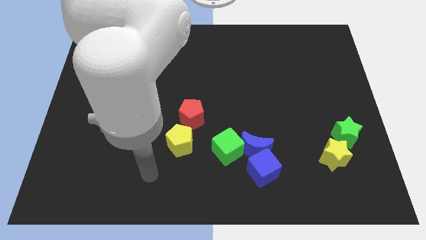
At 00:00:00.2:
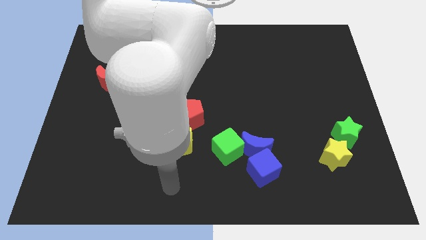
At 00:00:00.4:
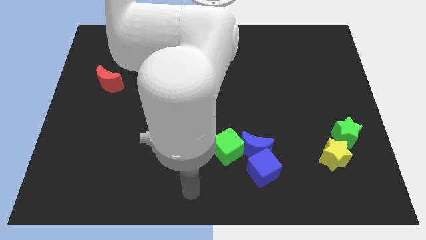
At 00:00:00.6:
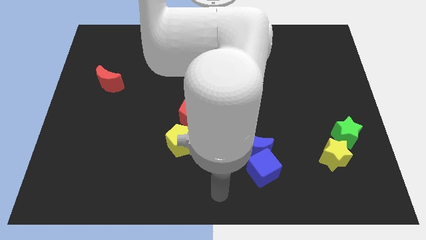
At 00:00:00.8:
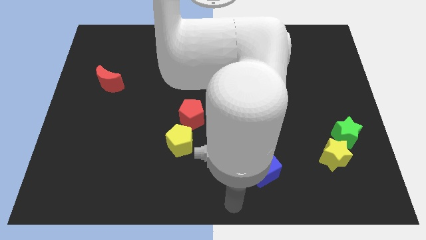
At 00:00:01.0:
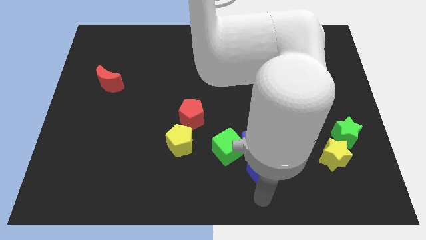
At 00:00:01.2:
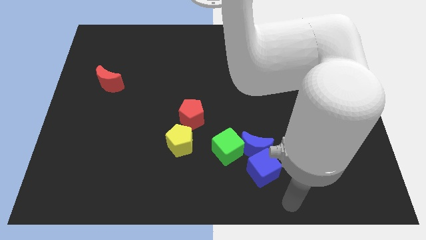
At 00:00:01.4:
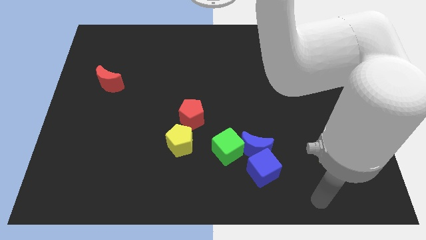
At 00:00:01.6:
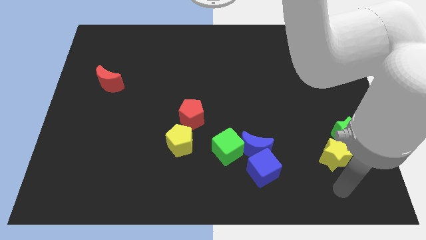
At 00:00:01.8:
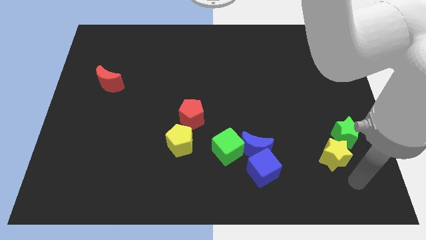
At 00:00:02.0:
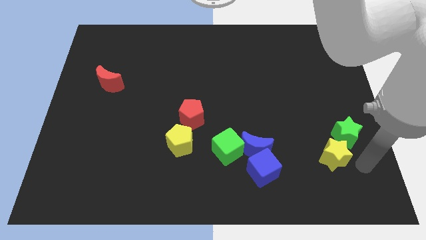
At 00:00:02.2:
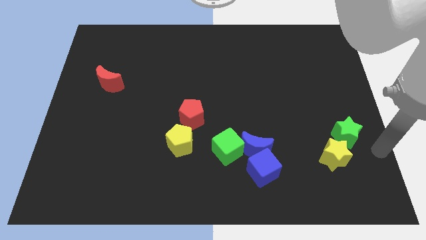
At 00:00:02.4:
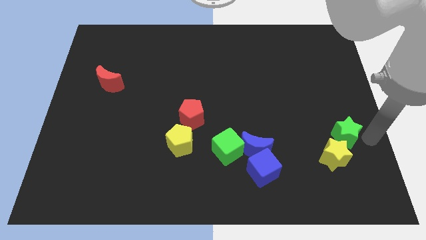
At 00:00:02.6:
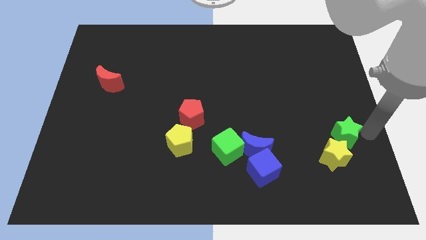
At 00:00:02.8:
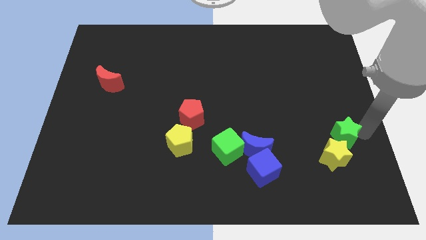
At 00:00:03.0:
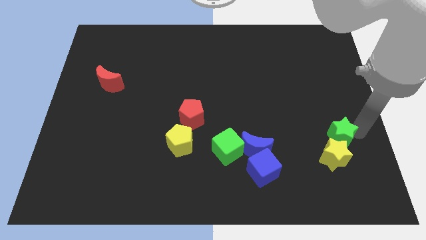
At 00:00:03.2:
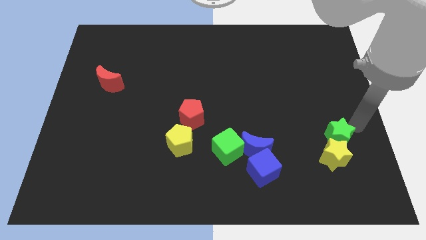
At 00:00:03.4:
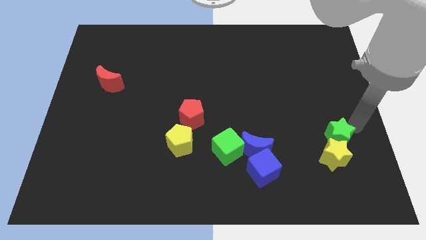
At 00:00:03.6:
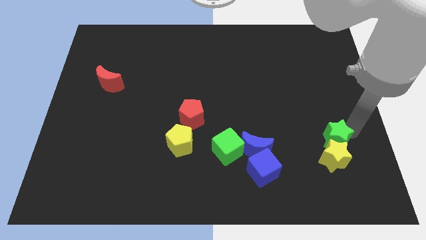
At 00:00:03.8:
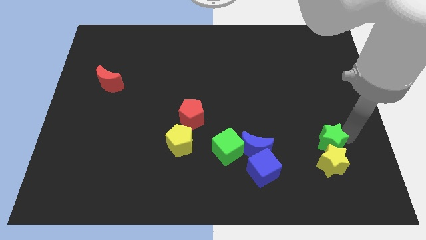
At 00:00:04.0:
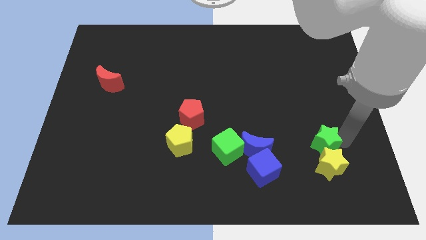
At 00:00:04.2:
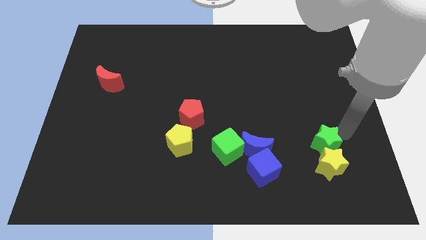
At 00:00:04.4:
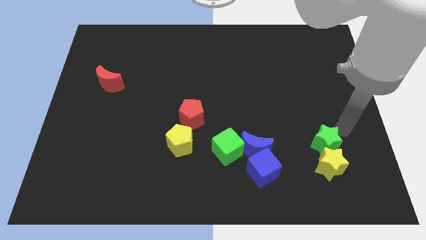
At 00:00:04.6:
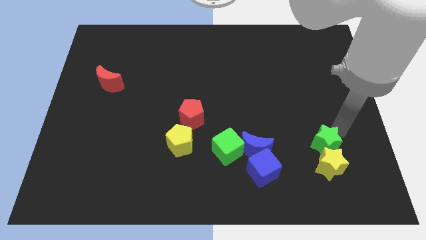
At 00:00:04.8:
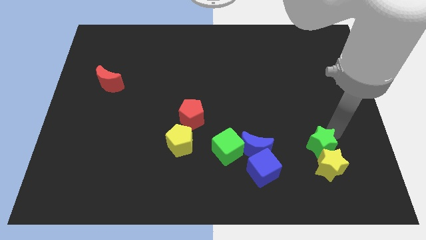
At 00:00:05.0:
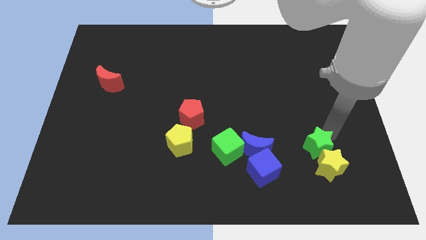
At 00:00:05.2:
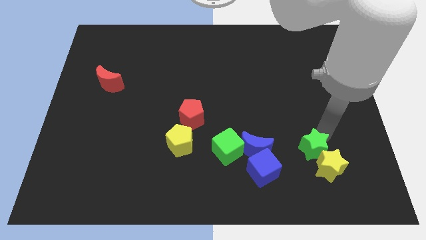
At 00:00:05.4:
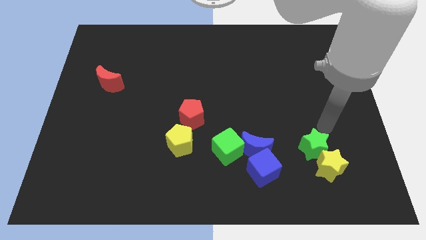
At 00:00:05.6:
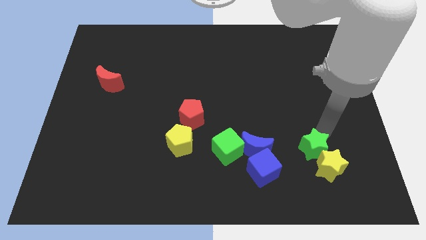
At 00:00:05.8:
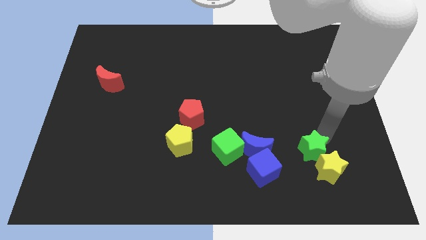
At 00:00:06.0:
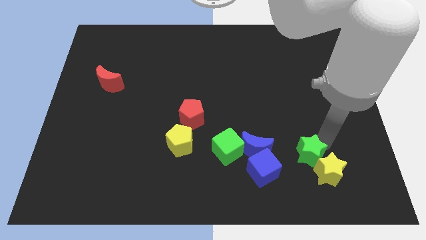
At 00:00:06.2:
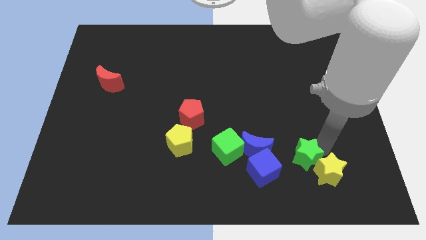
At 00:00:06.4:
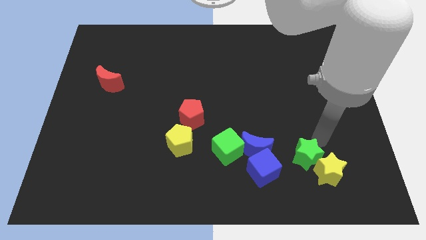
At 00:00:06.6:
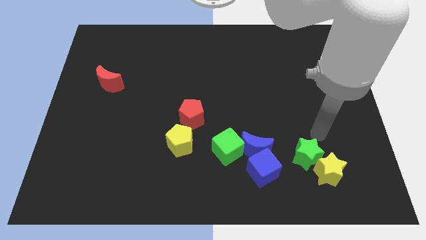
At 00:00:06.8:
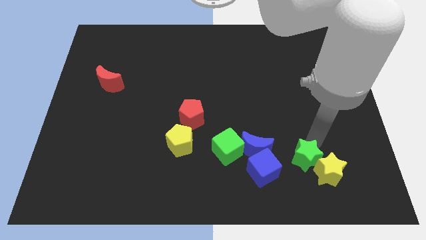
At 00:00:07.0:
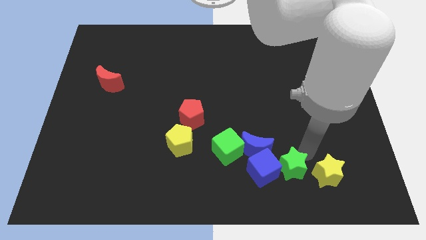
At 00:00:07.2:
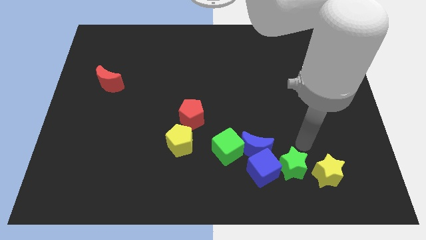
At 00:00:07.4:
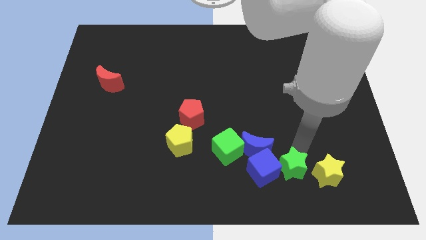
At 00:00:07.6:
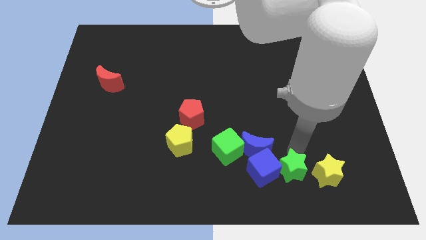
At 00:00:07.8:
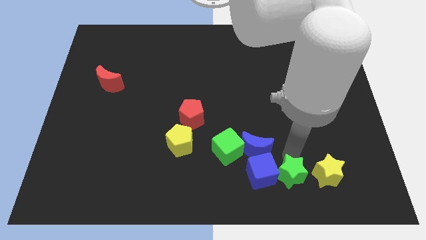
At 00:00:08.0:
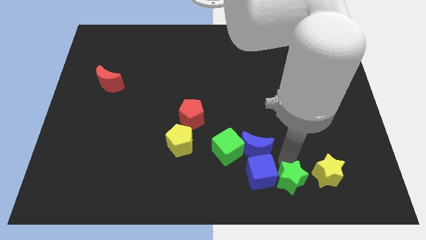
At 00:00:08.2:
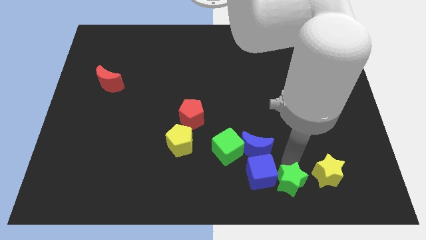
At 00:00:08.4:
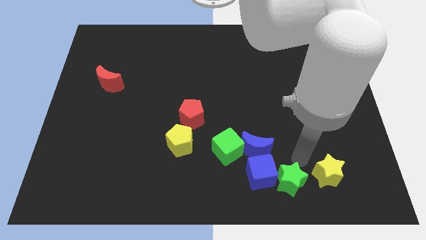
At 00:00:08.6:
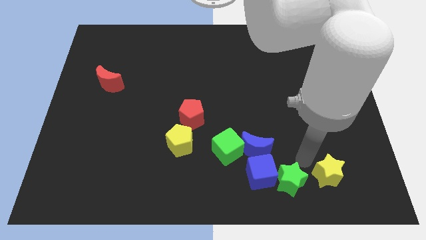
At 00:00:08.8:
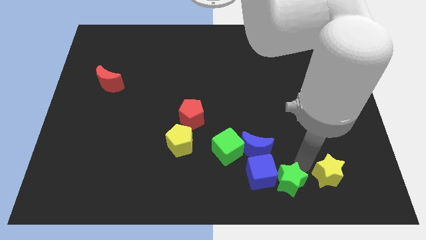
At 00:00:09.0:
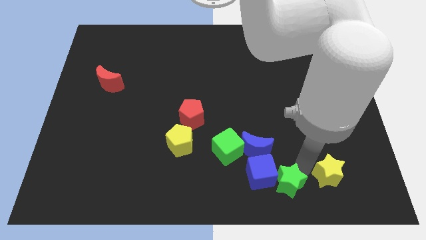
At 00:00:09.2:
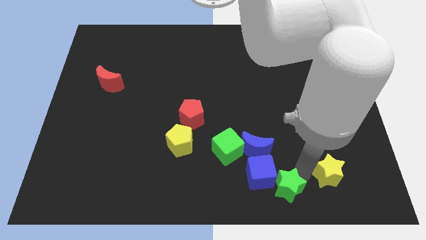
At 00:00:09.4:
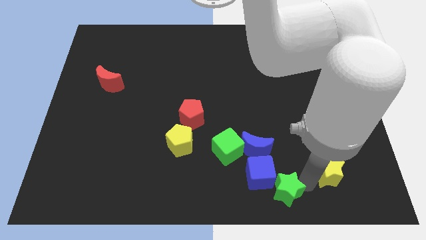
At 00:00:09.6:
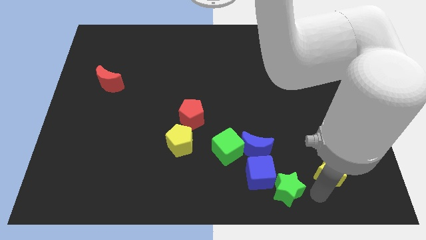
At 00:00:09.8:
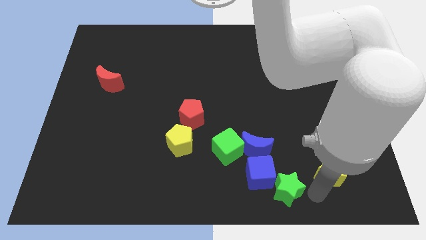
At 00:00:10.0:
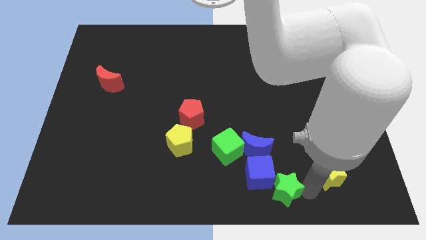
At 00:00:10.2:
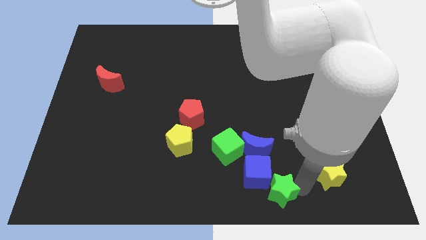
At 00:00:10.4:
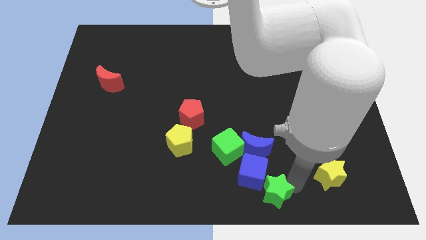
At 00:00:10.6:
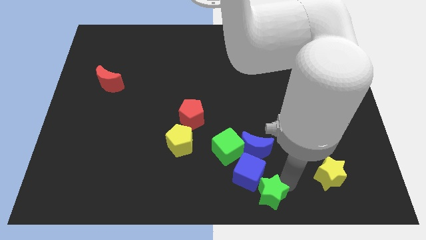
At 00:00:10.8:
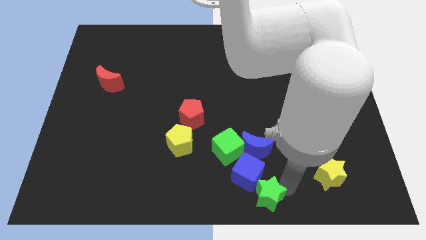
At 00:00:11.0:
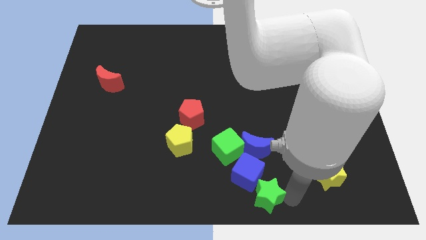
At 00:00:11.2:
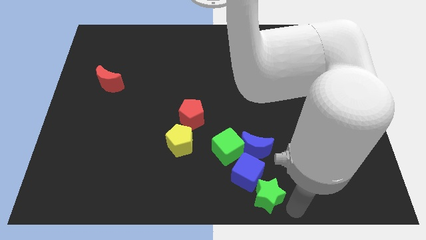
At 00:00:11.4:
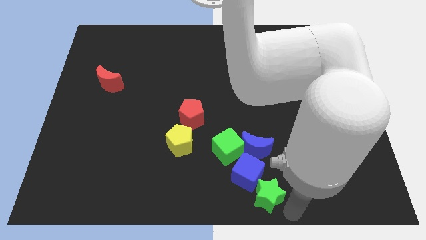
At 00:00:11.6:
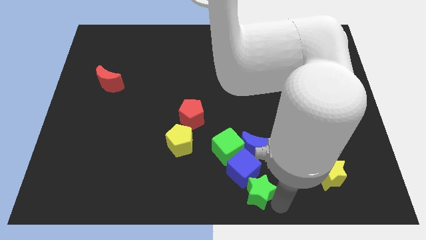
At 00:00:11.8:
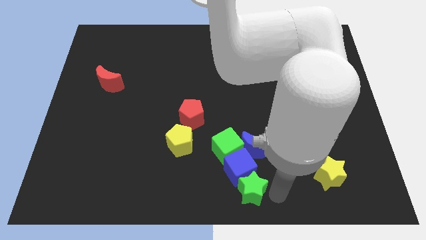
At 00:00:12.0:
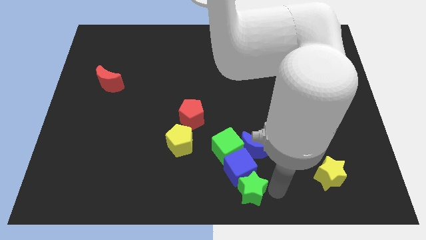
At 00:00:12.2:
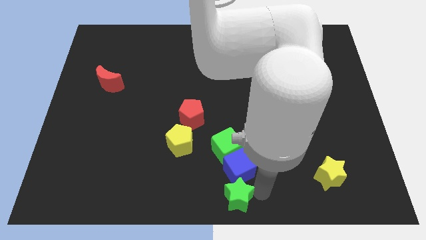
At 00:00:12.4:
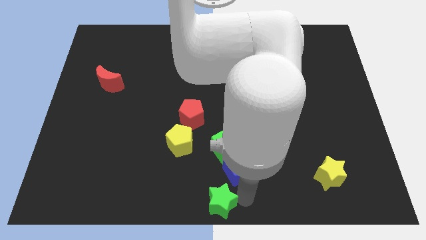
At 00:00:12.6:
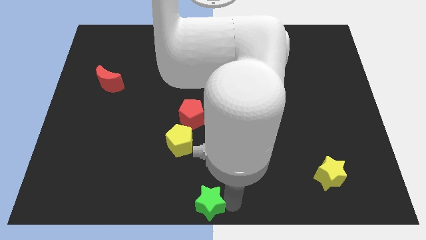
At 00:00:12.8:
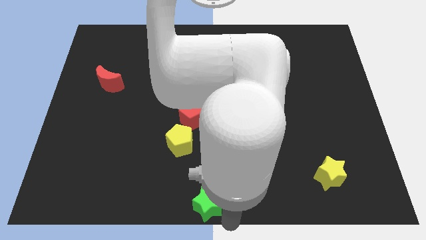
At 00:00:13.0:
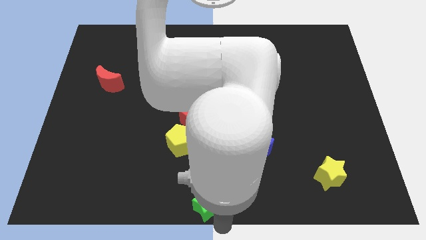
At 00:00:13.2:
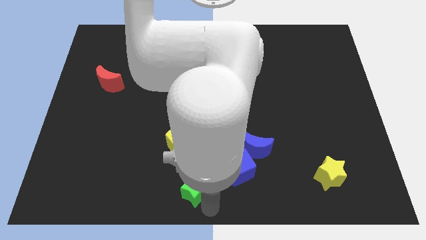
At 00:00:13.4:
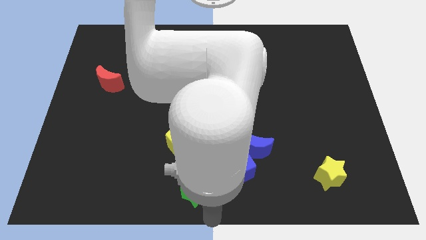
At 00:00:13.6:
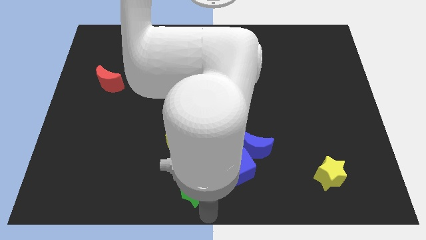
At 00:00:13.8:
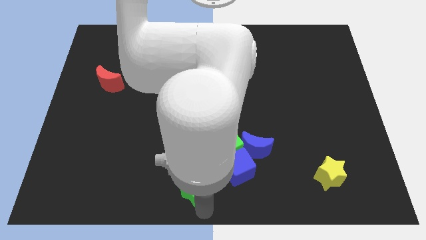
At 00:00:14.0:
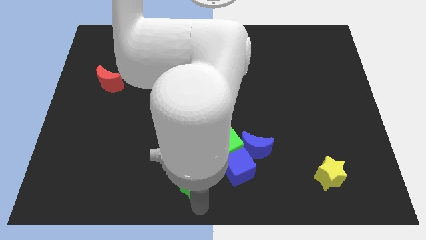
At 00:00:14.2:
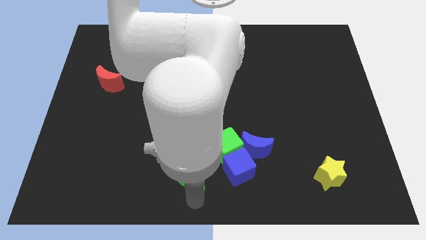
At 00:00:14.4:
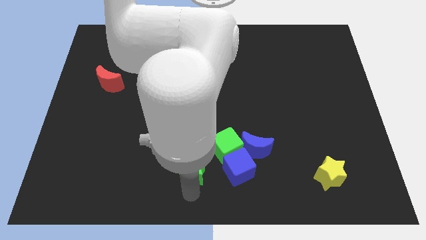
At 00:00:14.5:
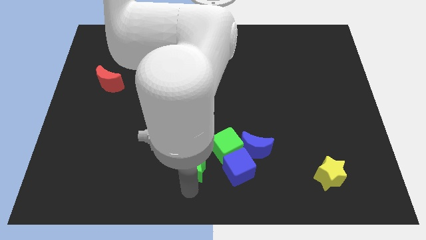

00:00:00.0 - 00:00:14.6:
put the green star to the left side of the green cube
